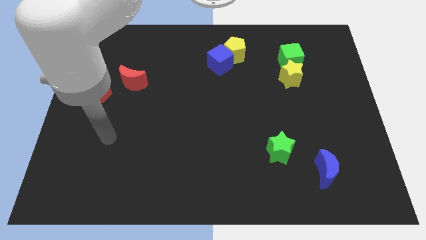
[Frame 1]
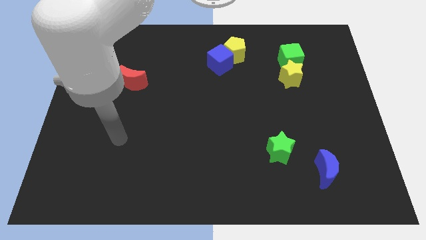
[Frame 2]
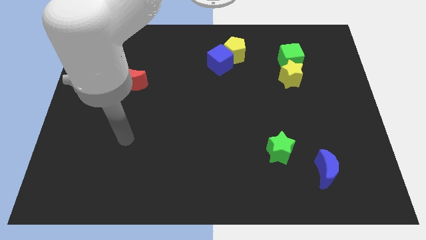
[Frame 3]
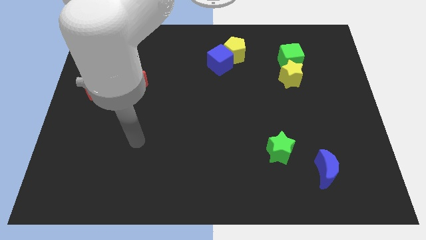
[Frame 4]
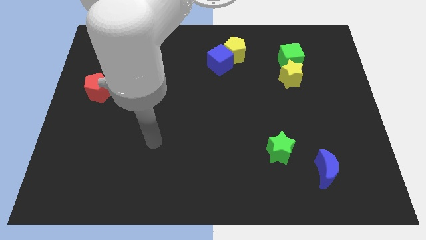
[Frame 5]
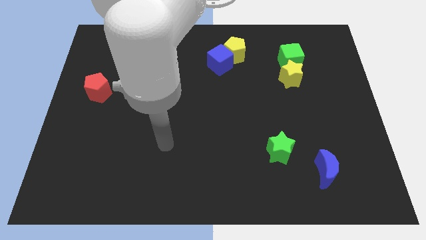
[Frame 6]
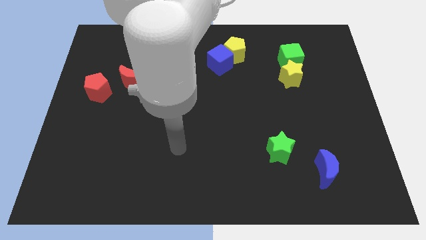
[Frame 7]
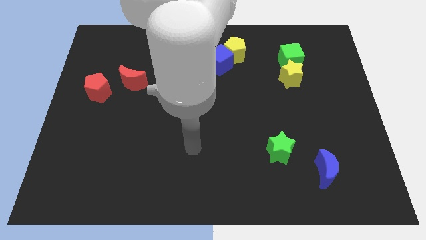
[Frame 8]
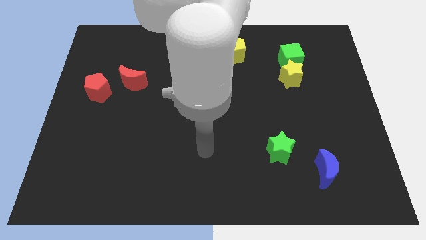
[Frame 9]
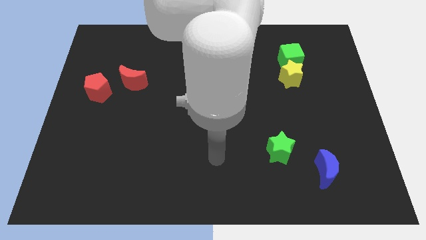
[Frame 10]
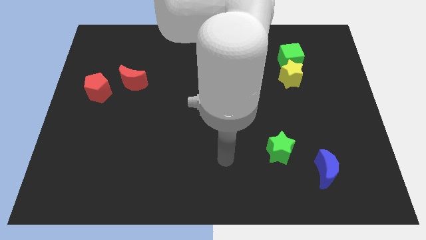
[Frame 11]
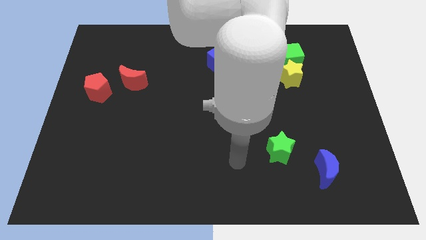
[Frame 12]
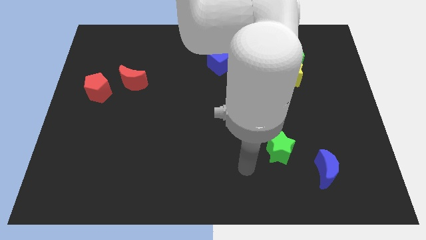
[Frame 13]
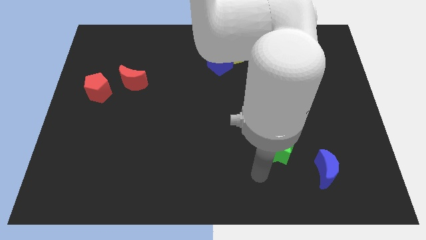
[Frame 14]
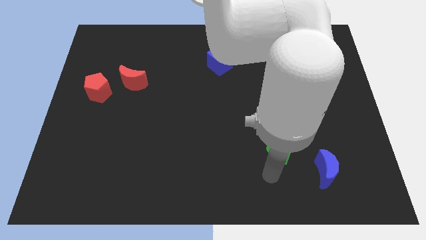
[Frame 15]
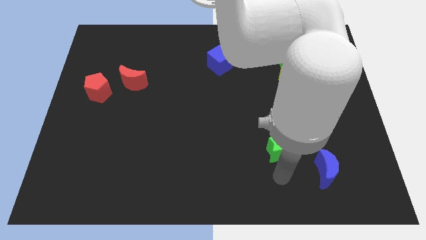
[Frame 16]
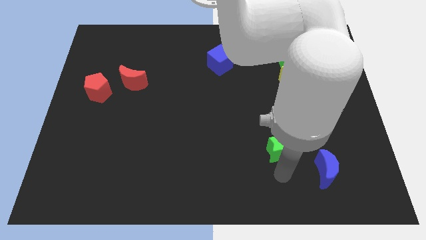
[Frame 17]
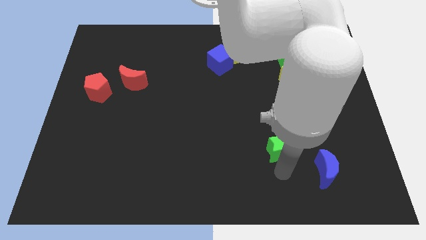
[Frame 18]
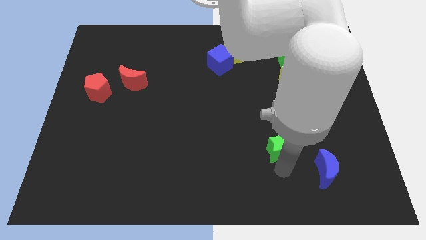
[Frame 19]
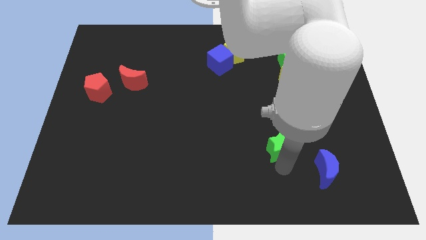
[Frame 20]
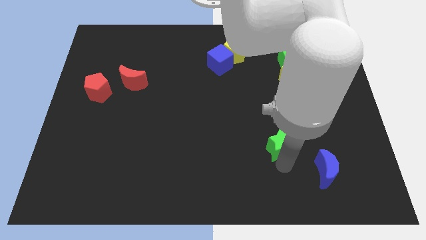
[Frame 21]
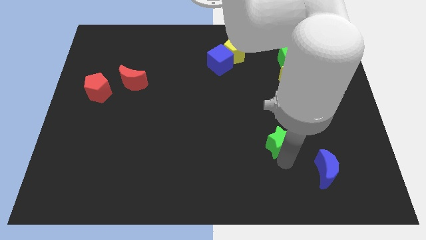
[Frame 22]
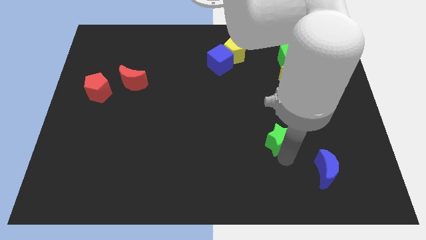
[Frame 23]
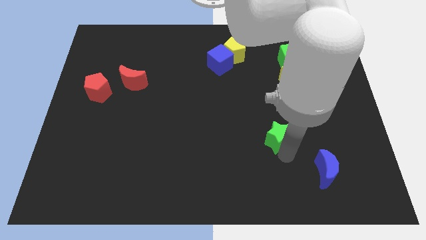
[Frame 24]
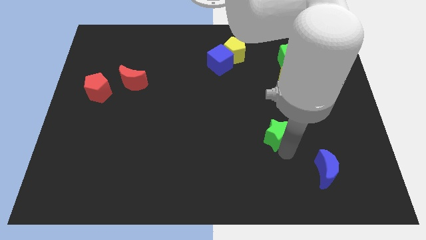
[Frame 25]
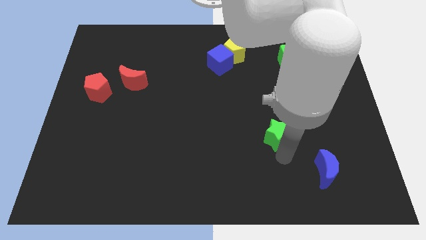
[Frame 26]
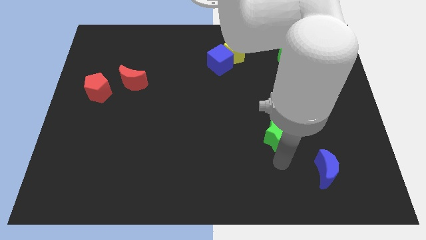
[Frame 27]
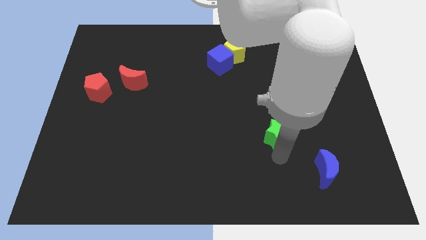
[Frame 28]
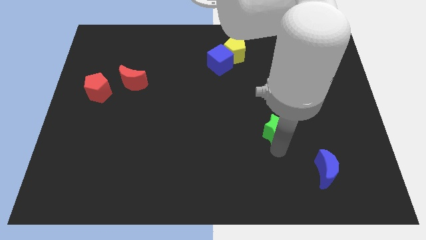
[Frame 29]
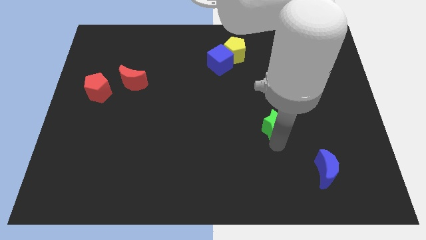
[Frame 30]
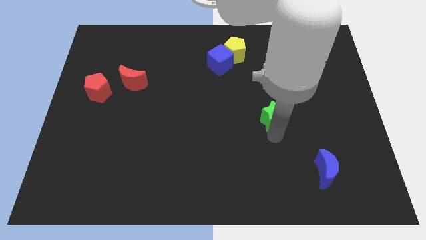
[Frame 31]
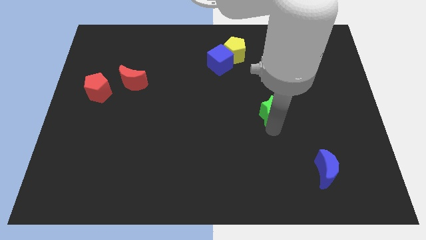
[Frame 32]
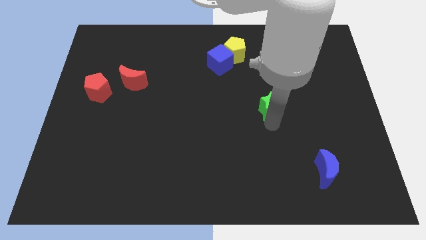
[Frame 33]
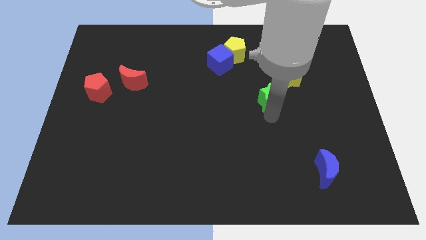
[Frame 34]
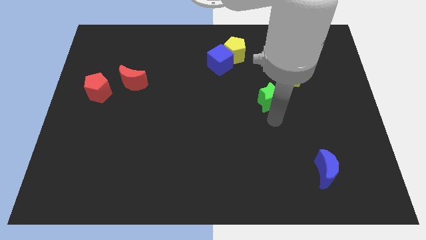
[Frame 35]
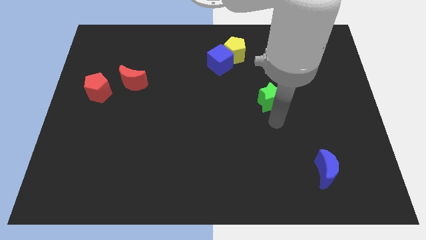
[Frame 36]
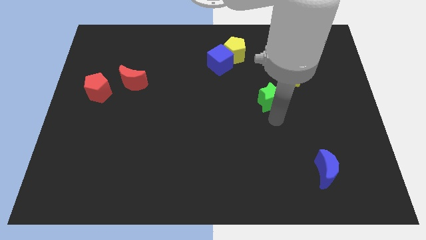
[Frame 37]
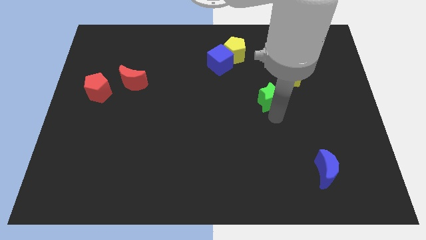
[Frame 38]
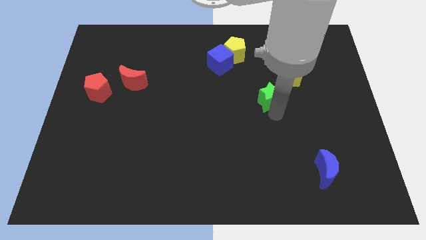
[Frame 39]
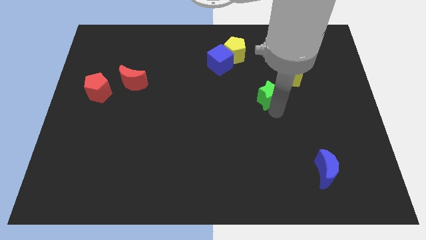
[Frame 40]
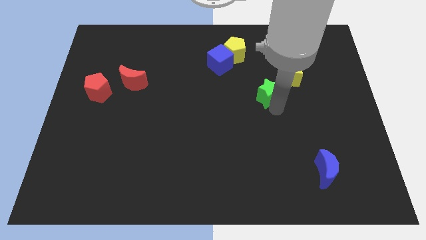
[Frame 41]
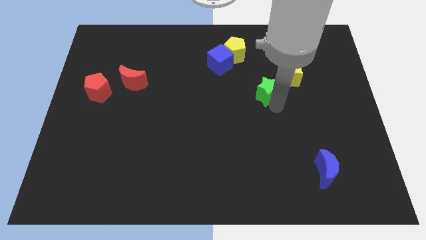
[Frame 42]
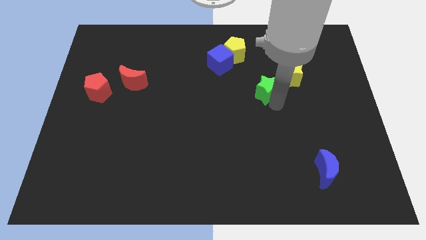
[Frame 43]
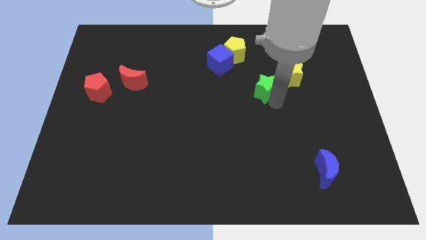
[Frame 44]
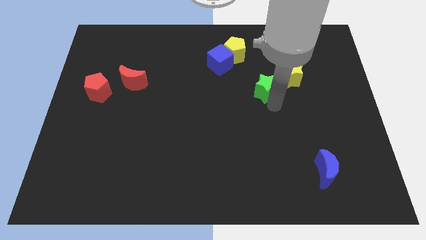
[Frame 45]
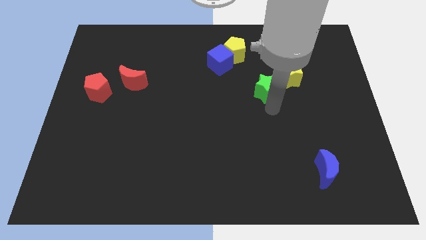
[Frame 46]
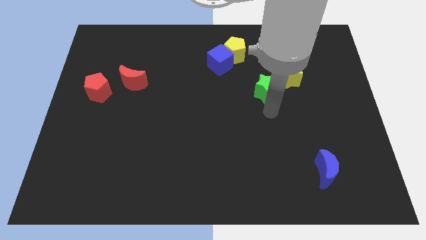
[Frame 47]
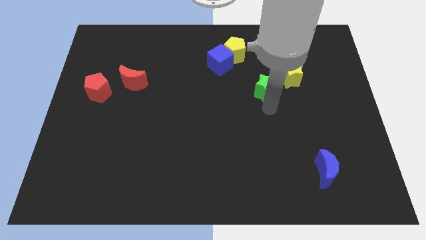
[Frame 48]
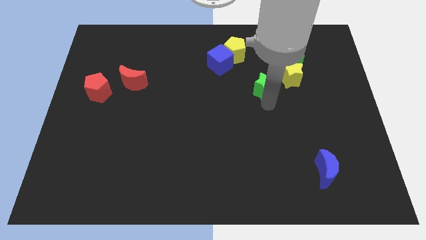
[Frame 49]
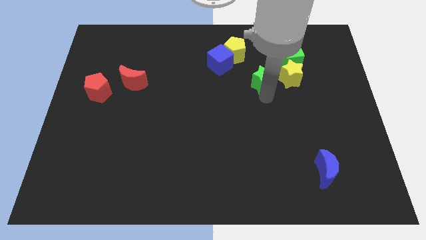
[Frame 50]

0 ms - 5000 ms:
push the green star to the bottom right side of the yellow pentagon

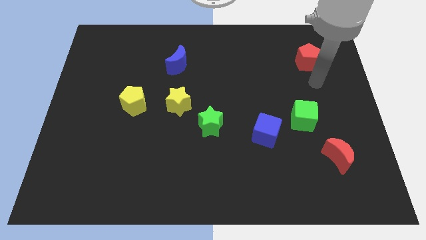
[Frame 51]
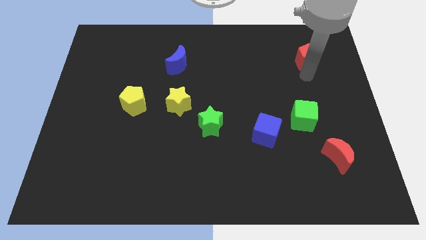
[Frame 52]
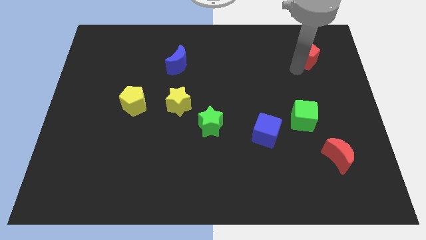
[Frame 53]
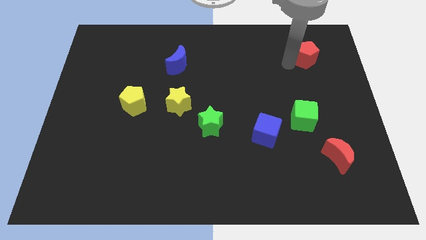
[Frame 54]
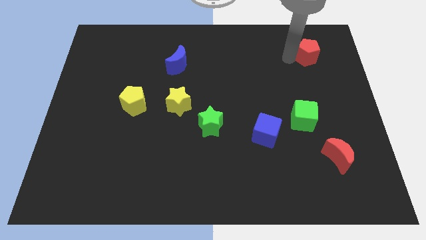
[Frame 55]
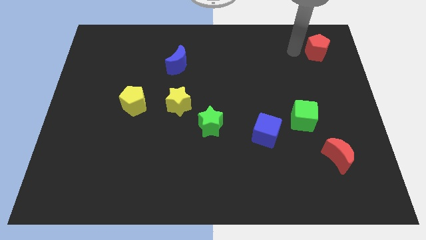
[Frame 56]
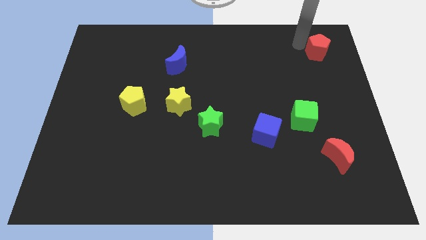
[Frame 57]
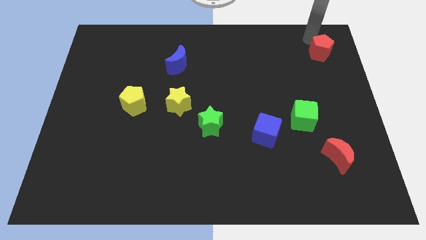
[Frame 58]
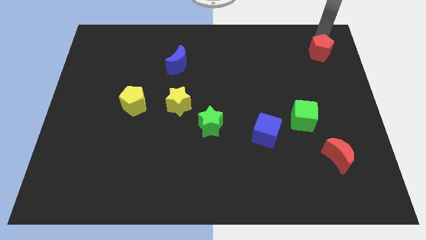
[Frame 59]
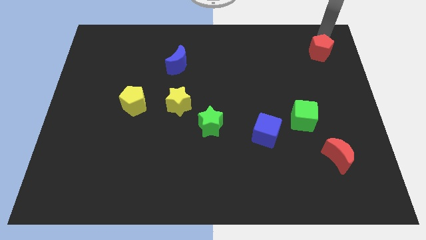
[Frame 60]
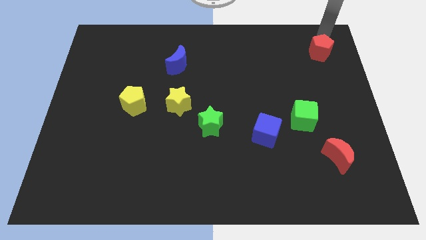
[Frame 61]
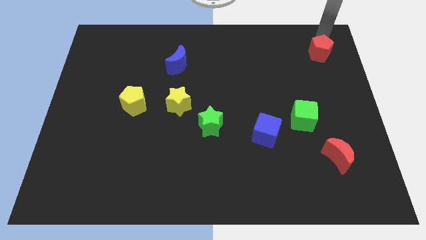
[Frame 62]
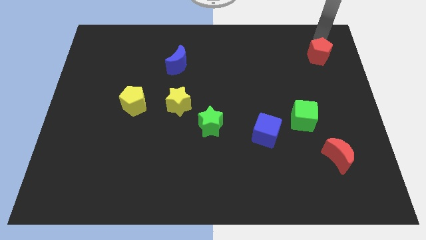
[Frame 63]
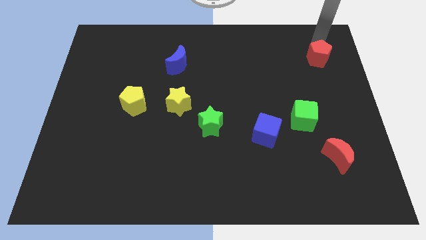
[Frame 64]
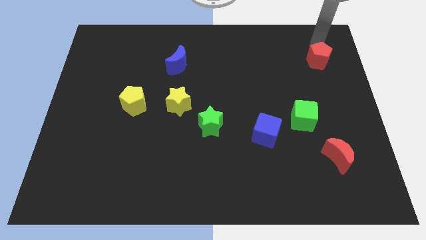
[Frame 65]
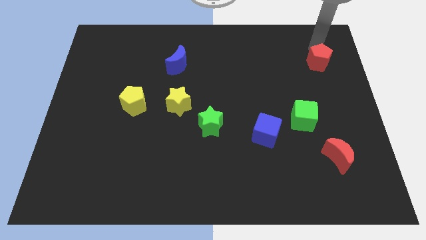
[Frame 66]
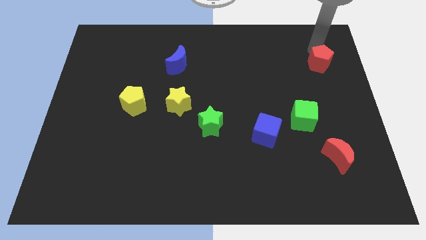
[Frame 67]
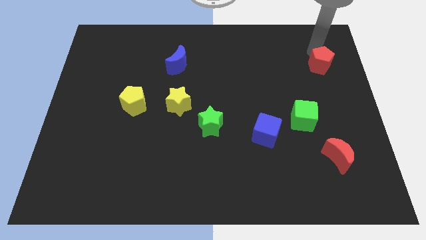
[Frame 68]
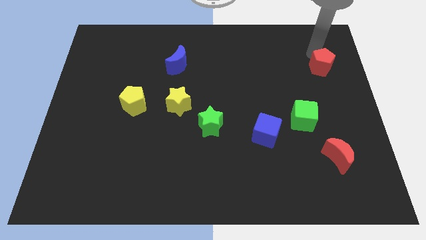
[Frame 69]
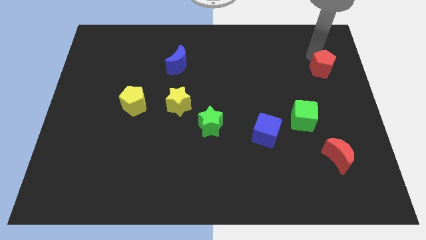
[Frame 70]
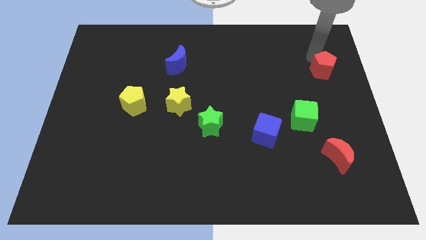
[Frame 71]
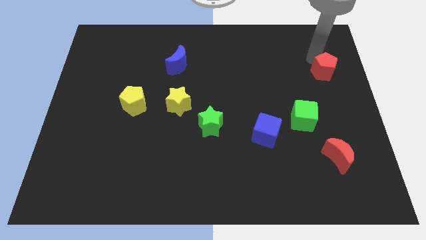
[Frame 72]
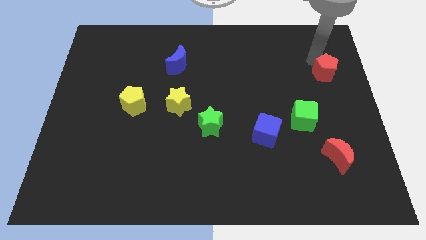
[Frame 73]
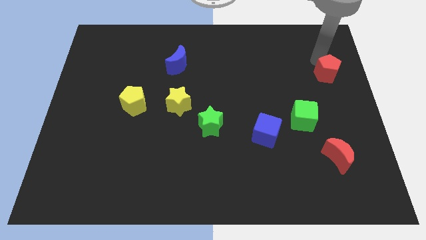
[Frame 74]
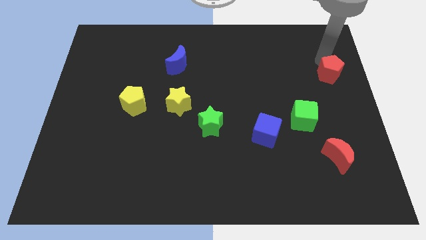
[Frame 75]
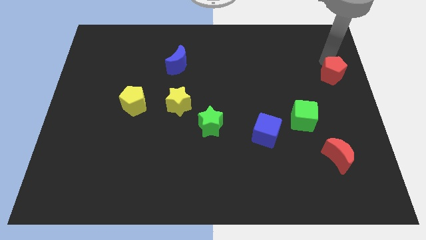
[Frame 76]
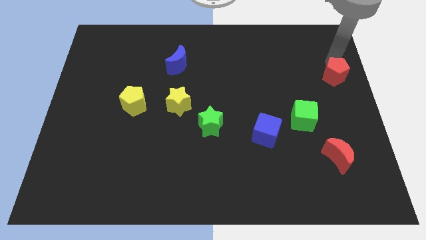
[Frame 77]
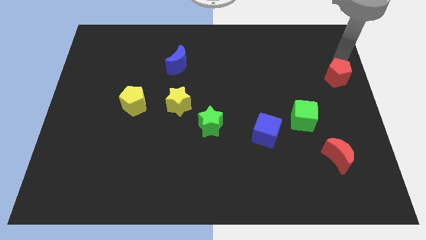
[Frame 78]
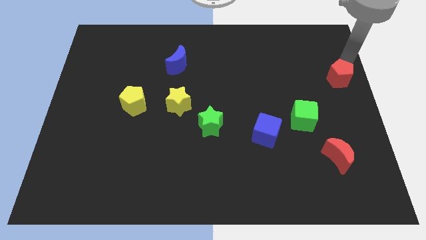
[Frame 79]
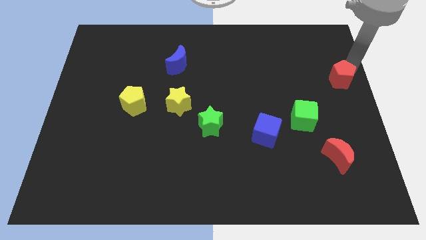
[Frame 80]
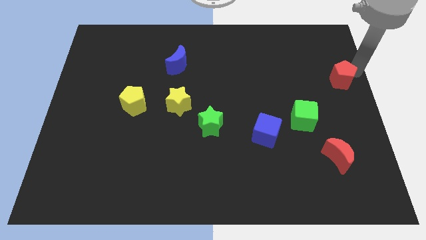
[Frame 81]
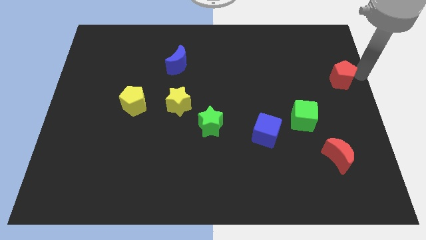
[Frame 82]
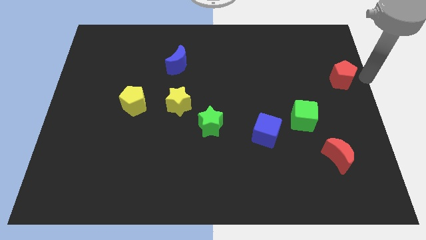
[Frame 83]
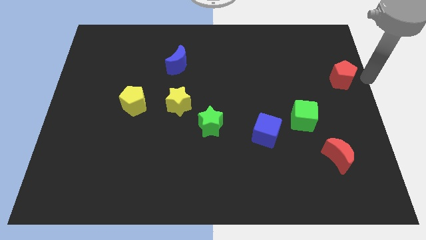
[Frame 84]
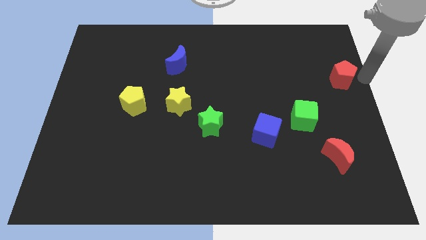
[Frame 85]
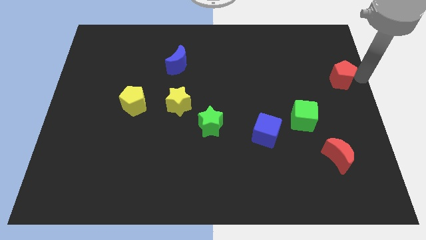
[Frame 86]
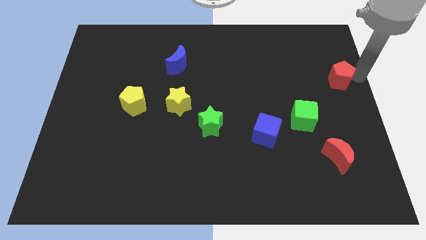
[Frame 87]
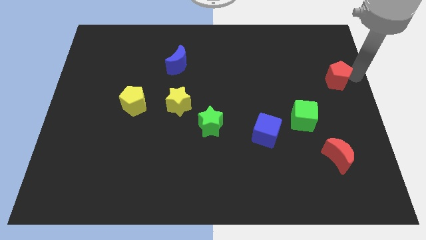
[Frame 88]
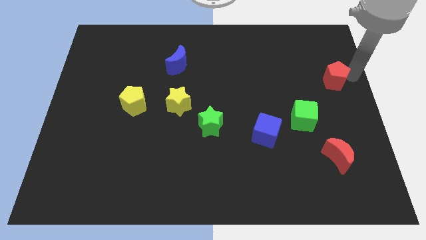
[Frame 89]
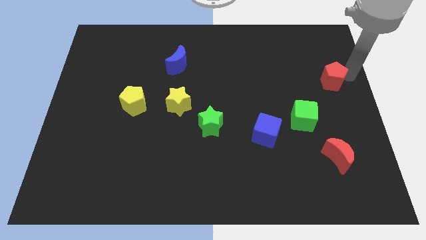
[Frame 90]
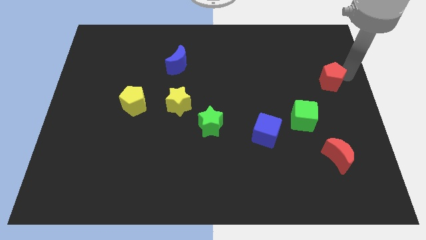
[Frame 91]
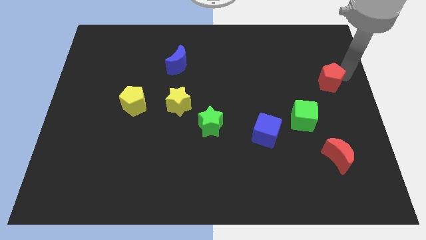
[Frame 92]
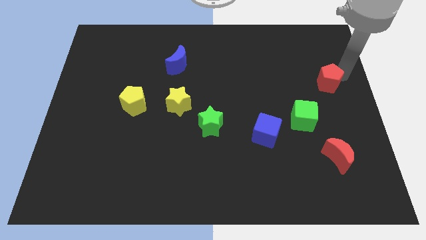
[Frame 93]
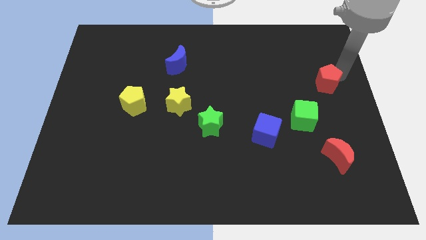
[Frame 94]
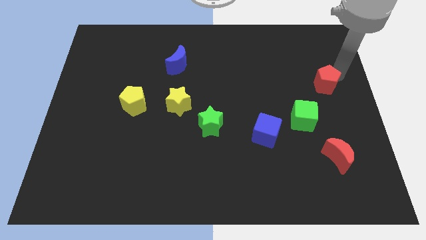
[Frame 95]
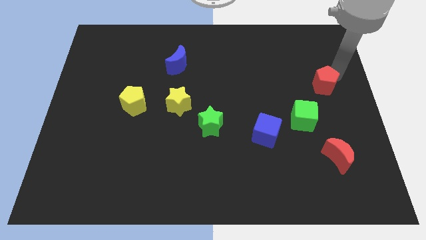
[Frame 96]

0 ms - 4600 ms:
put the red pentagon to the top right side of the green cube
